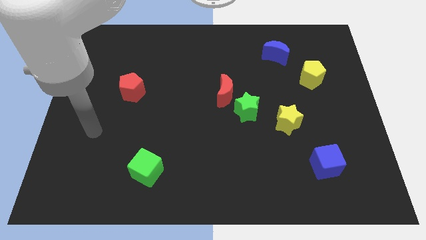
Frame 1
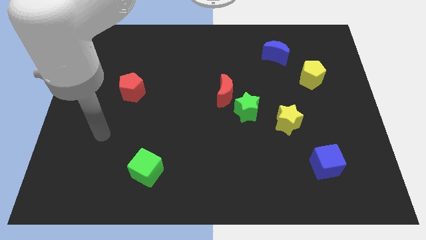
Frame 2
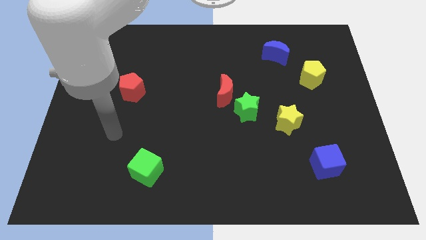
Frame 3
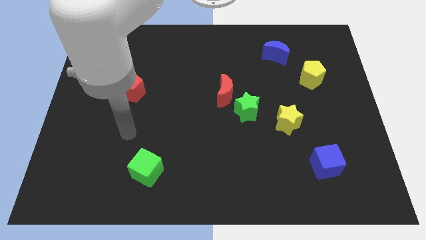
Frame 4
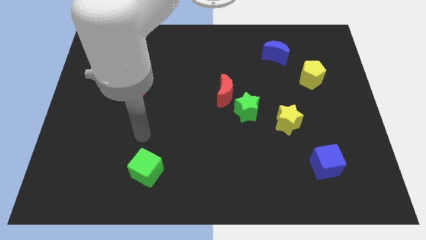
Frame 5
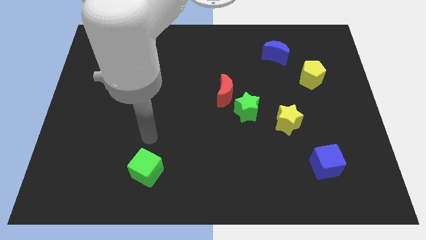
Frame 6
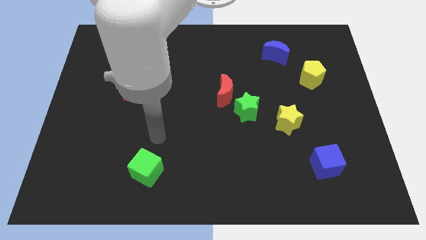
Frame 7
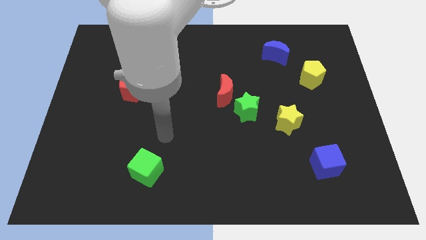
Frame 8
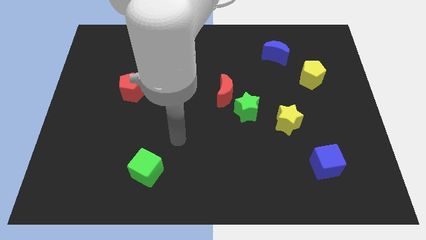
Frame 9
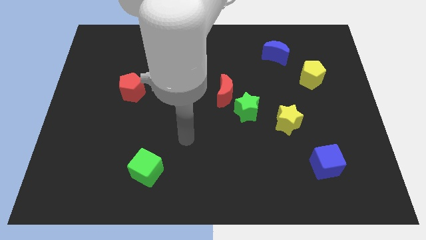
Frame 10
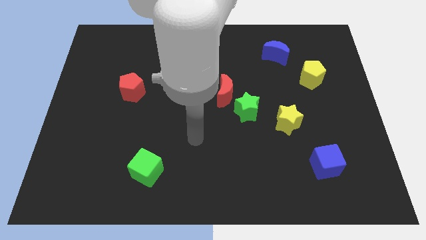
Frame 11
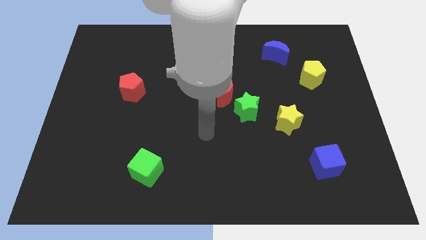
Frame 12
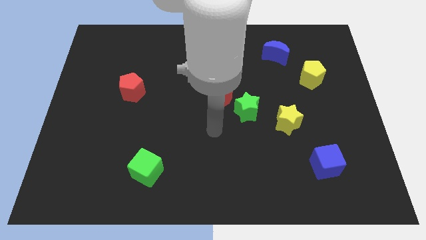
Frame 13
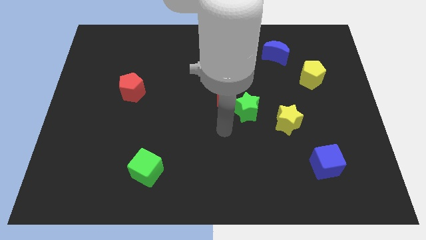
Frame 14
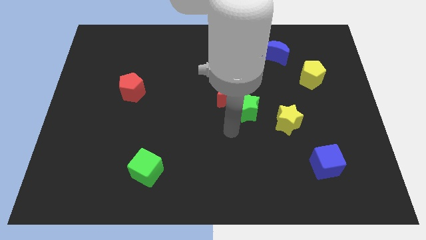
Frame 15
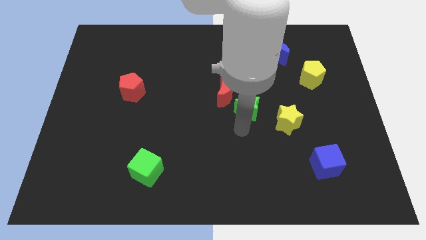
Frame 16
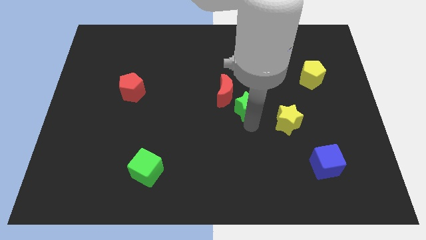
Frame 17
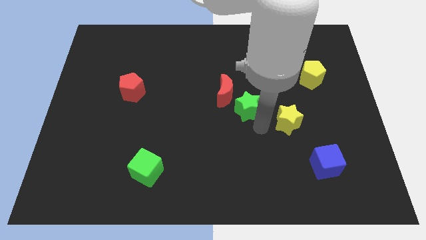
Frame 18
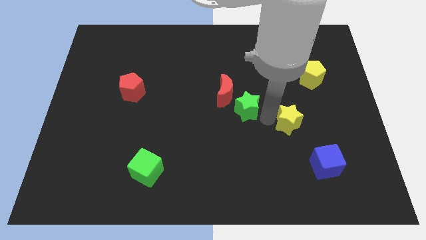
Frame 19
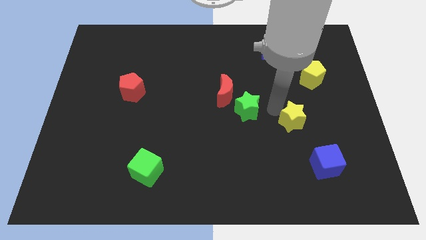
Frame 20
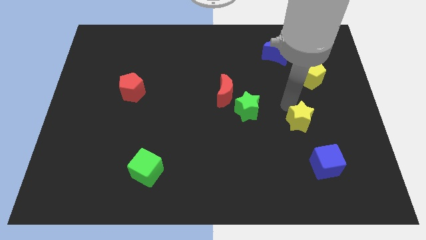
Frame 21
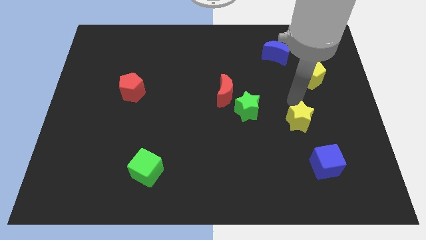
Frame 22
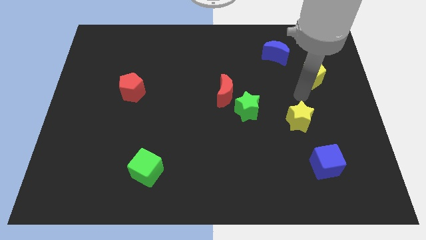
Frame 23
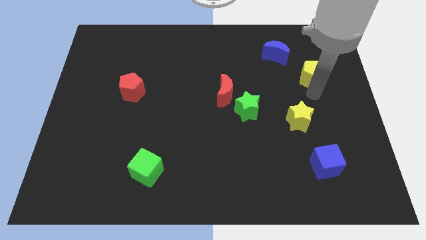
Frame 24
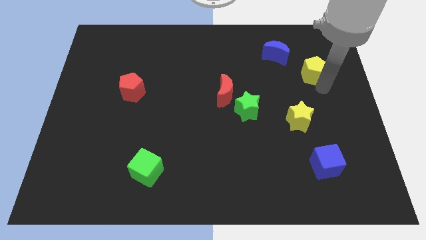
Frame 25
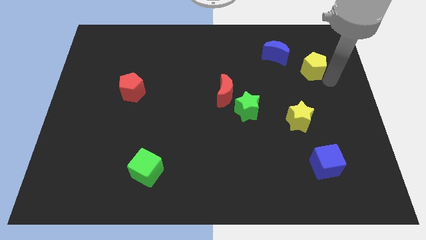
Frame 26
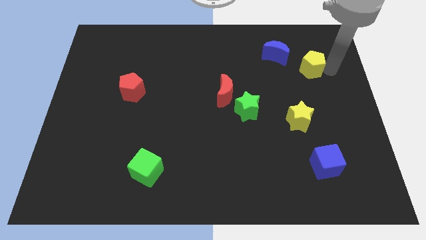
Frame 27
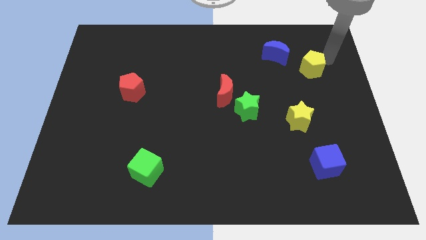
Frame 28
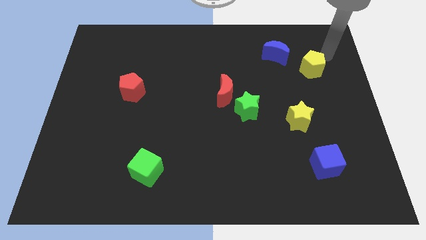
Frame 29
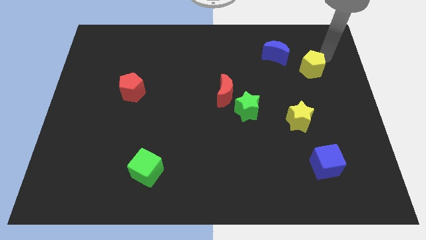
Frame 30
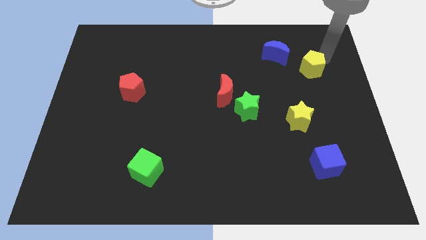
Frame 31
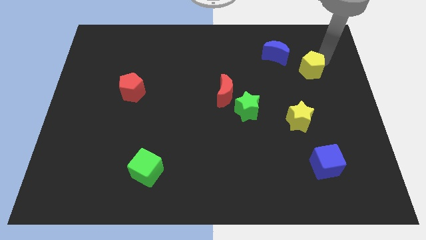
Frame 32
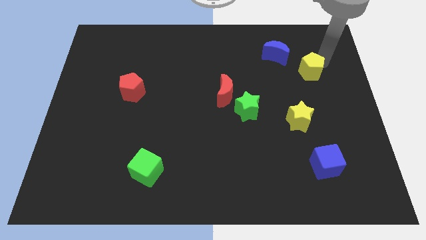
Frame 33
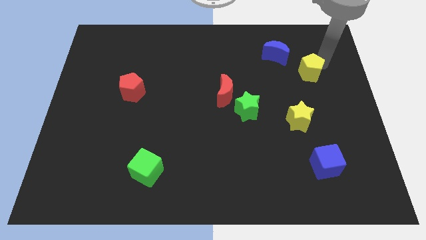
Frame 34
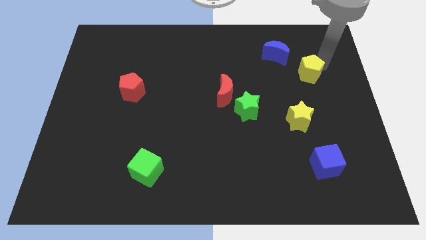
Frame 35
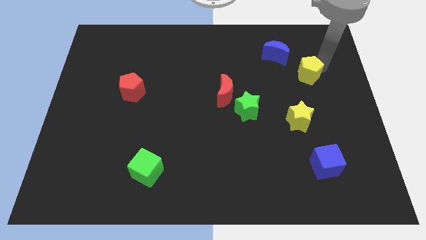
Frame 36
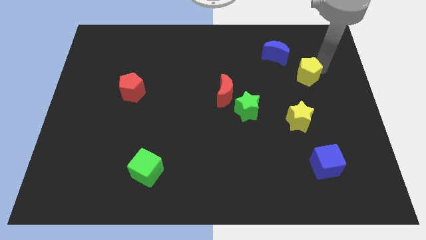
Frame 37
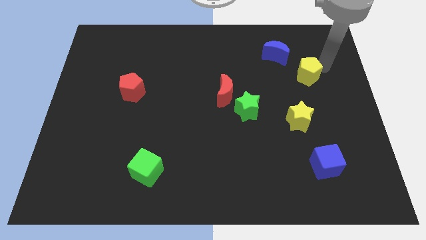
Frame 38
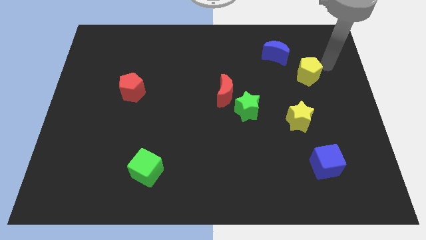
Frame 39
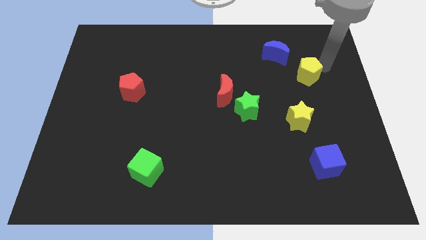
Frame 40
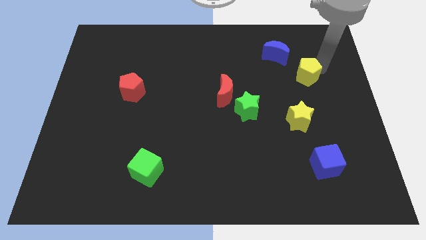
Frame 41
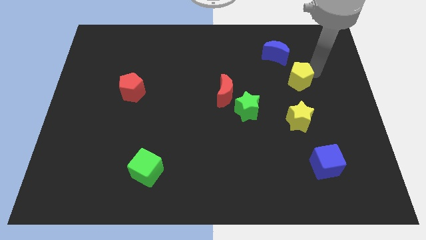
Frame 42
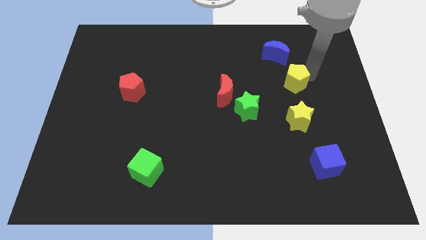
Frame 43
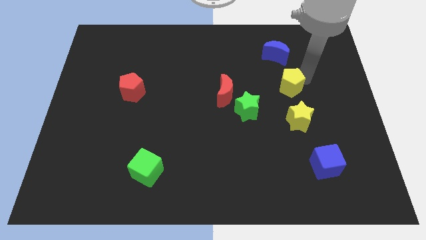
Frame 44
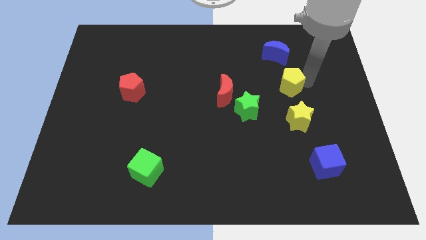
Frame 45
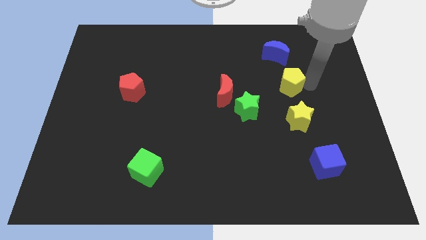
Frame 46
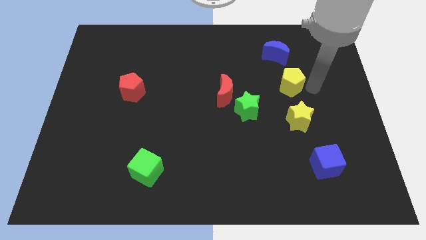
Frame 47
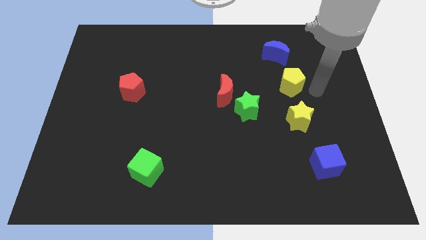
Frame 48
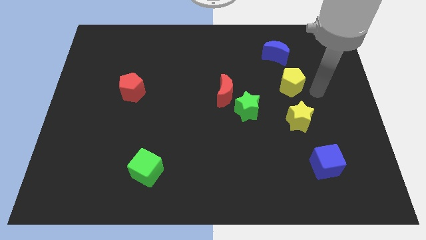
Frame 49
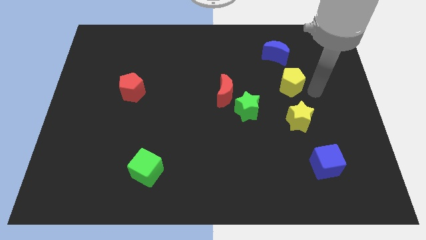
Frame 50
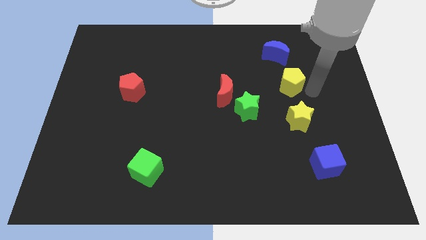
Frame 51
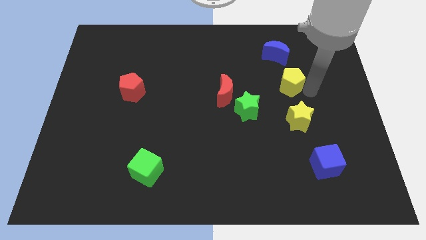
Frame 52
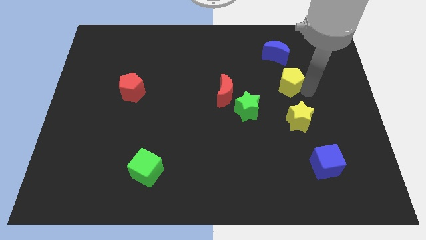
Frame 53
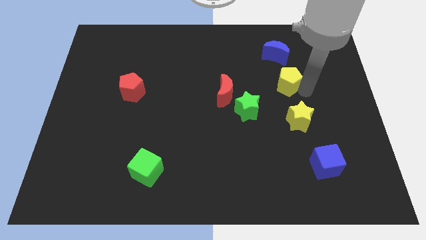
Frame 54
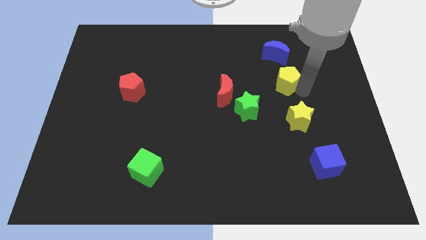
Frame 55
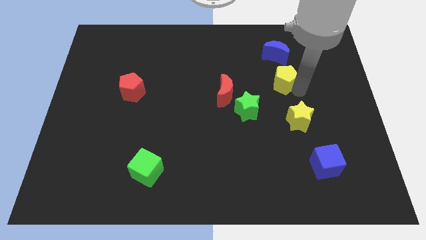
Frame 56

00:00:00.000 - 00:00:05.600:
slightly slide the yellow pentagon to the left

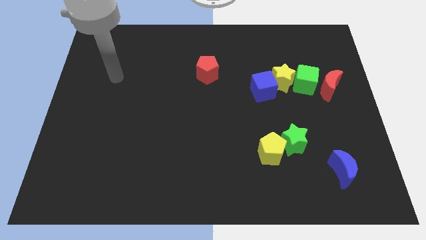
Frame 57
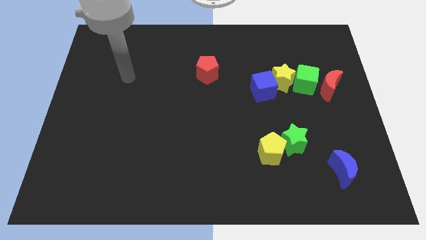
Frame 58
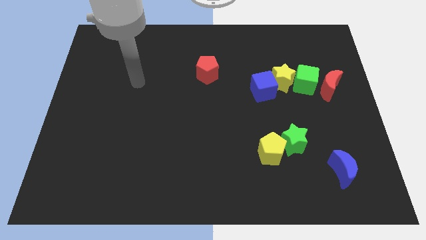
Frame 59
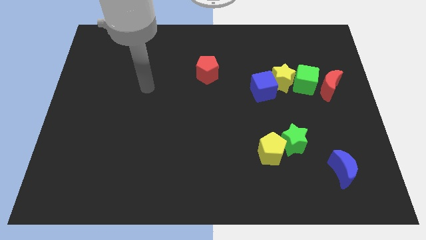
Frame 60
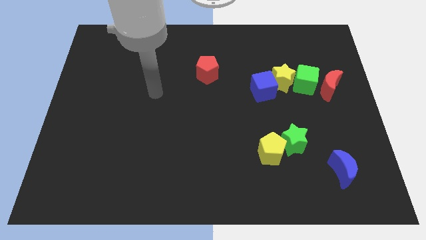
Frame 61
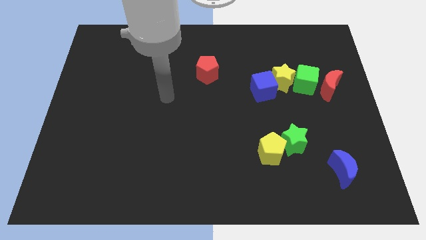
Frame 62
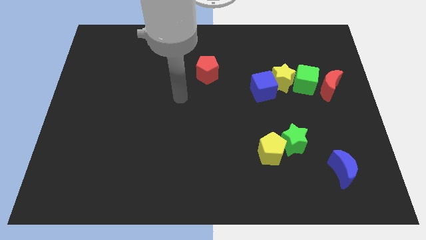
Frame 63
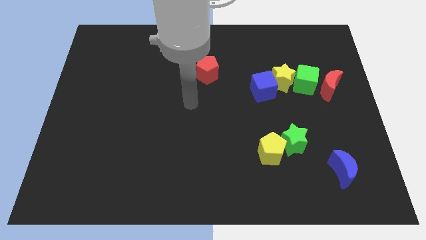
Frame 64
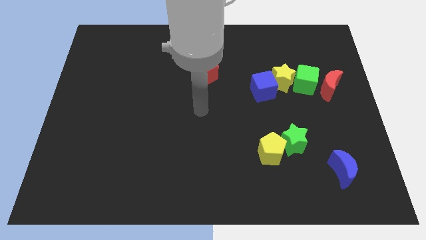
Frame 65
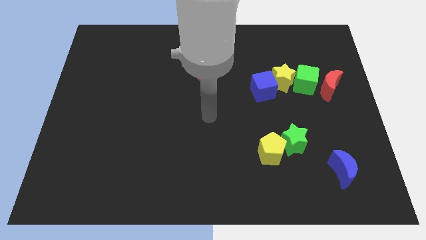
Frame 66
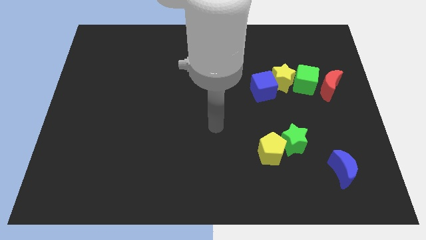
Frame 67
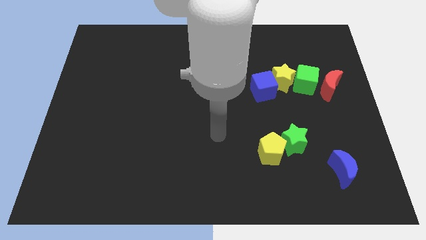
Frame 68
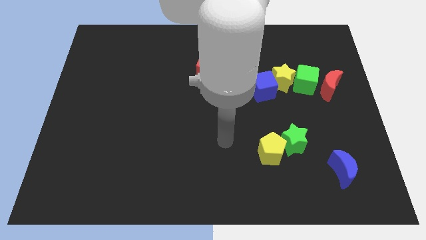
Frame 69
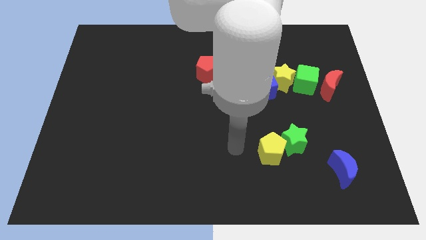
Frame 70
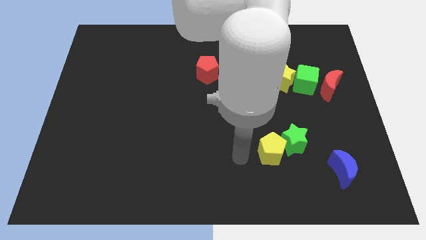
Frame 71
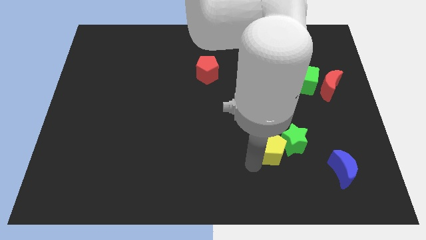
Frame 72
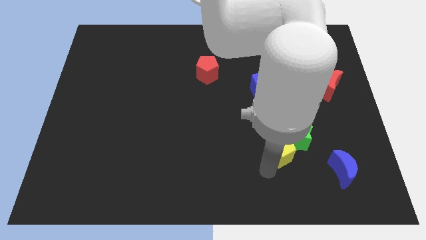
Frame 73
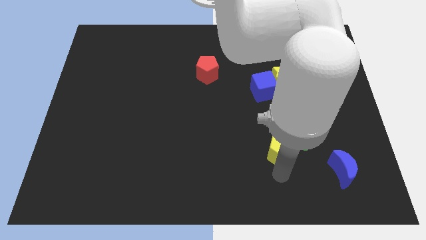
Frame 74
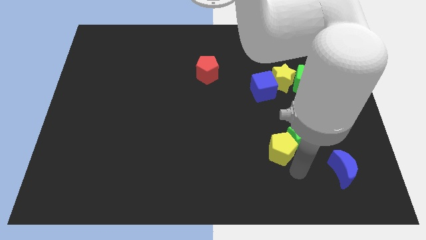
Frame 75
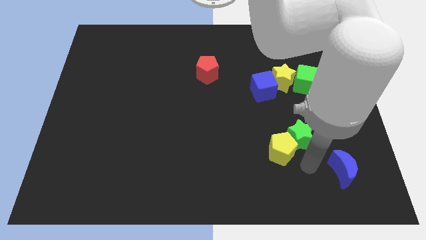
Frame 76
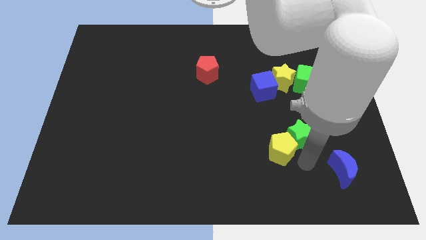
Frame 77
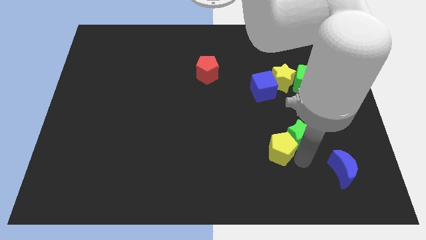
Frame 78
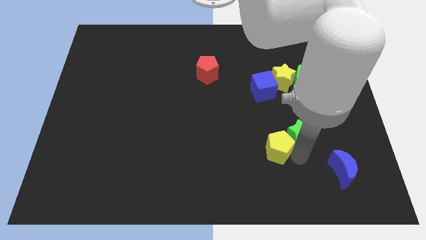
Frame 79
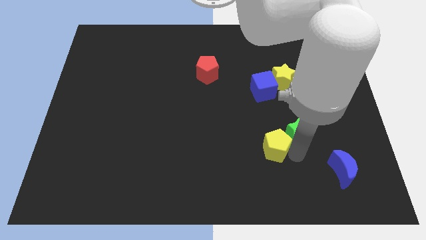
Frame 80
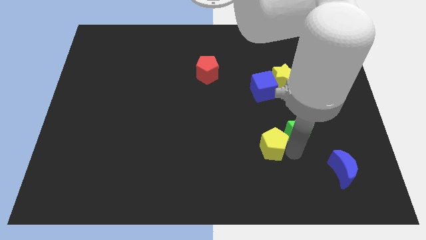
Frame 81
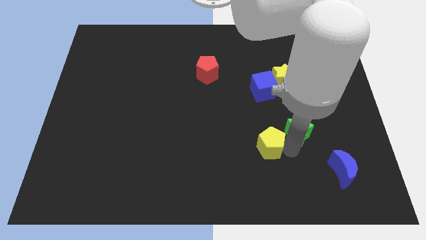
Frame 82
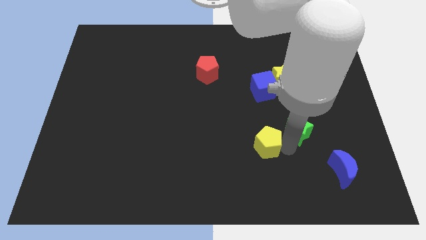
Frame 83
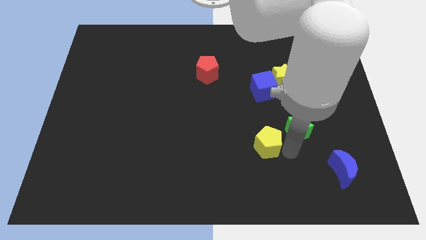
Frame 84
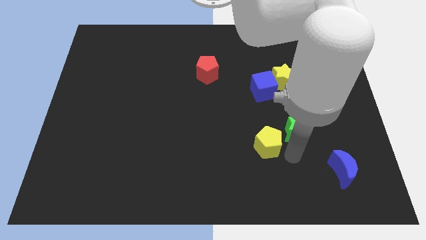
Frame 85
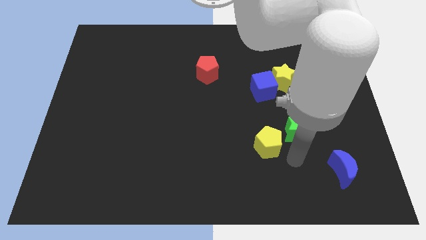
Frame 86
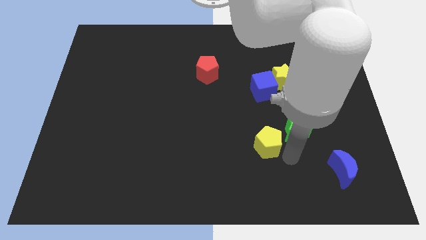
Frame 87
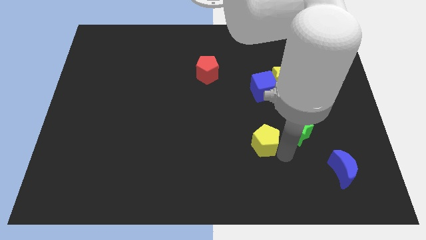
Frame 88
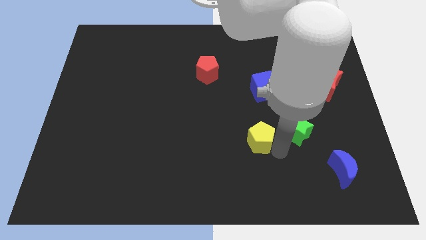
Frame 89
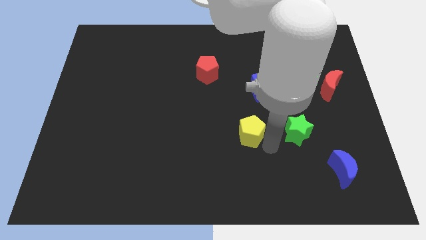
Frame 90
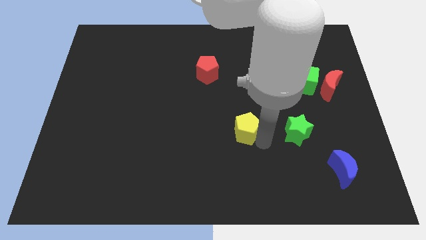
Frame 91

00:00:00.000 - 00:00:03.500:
slightly slide the yellow pentagon upwards and to the left diagonally
